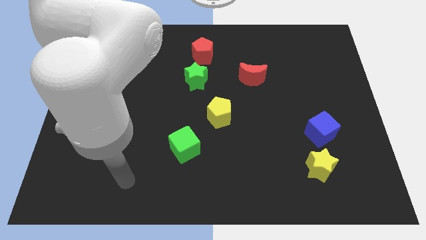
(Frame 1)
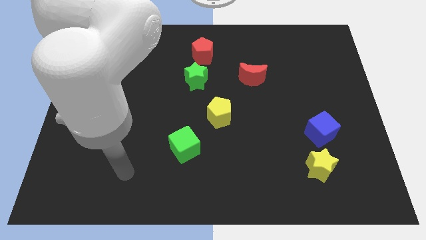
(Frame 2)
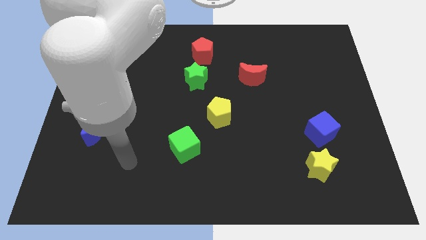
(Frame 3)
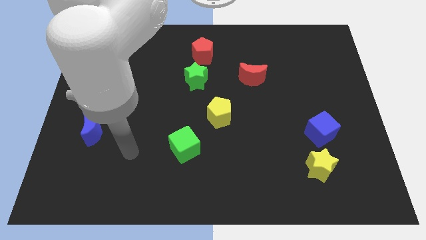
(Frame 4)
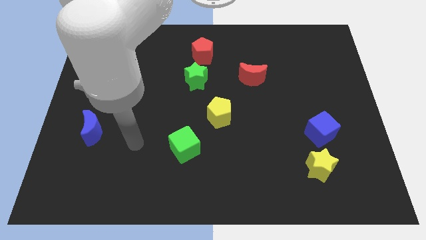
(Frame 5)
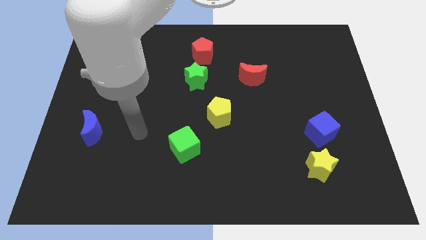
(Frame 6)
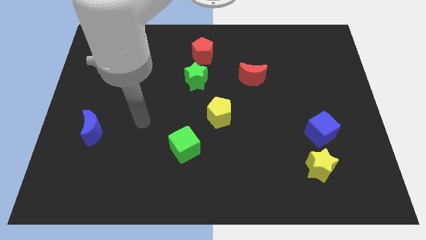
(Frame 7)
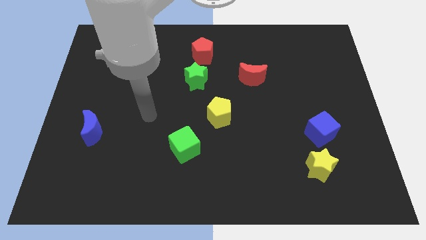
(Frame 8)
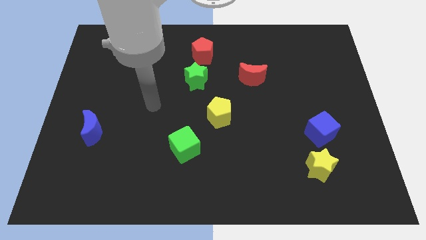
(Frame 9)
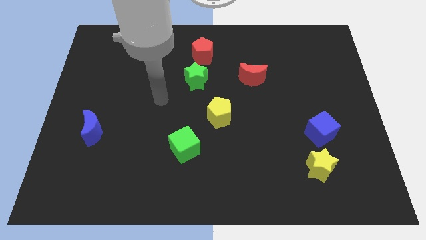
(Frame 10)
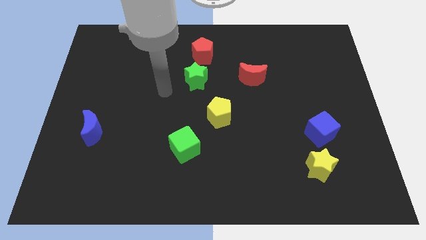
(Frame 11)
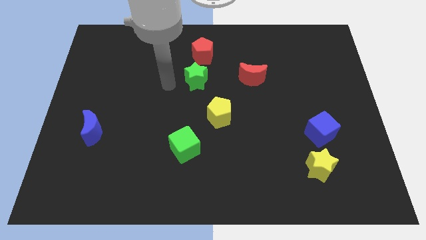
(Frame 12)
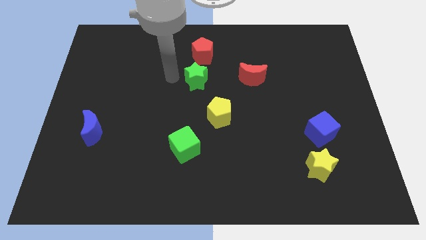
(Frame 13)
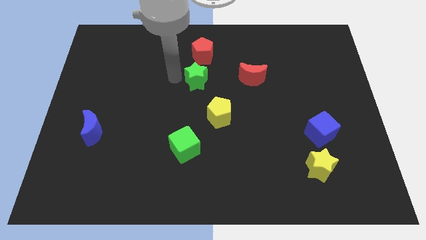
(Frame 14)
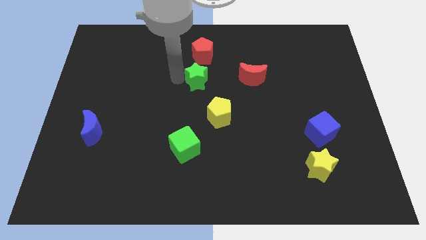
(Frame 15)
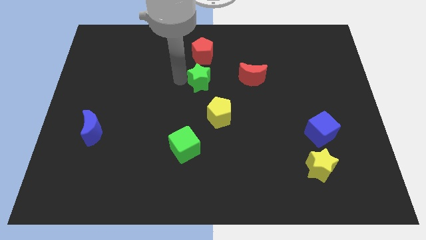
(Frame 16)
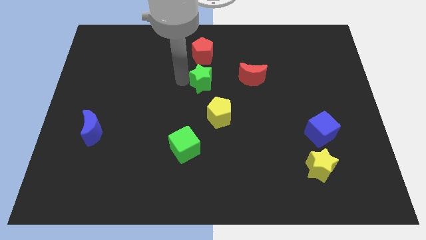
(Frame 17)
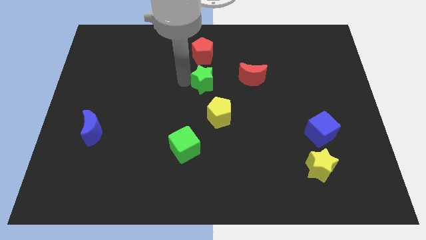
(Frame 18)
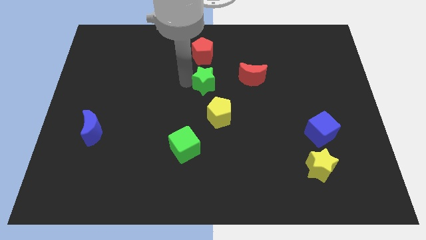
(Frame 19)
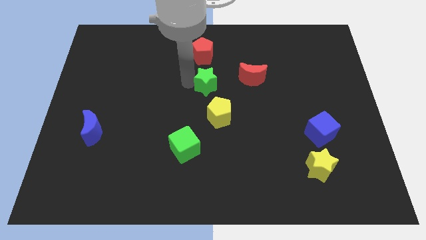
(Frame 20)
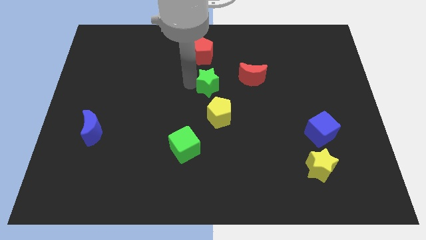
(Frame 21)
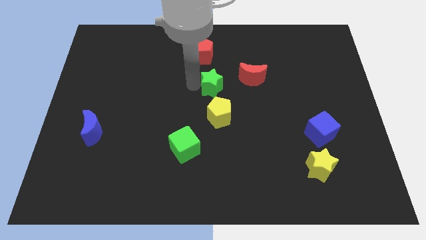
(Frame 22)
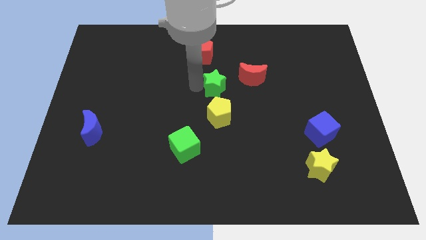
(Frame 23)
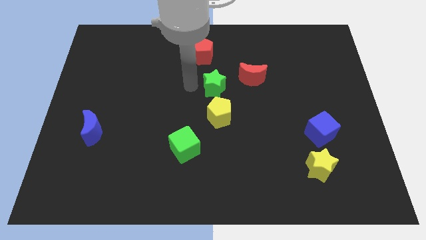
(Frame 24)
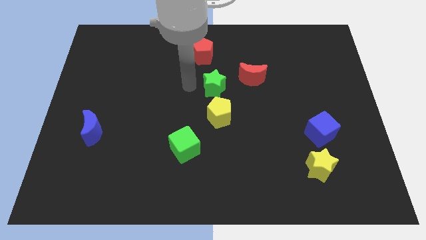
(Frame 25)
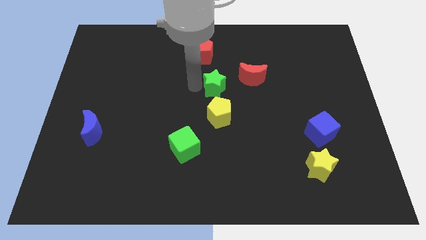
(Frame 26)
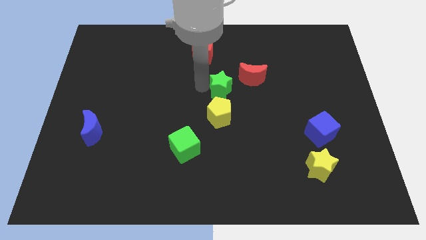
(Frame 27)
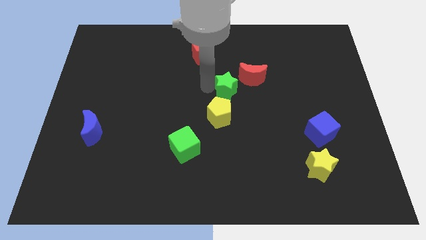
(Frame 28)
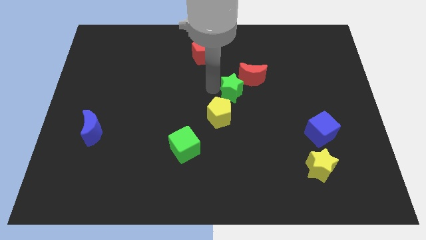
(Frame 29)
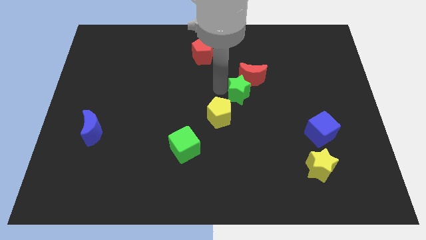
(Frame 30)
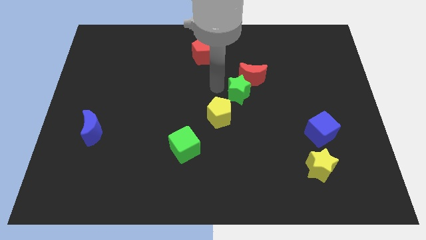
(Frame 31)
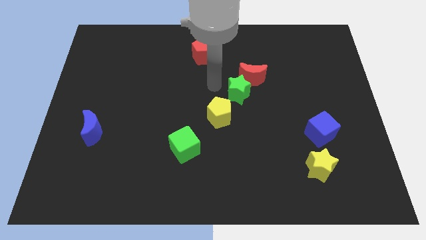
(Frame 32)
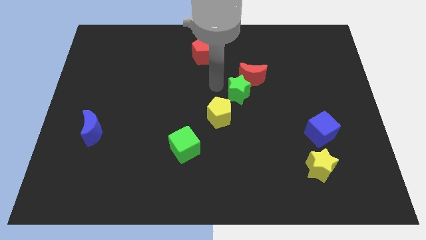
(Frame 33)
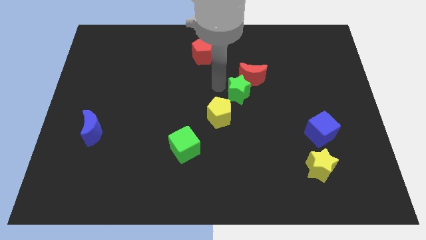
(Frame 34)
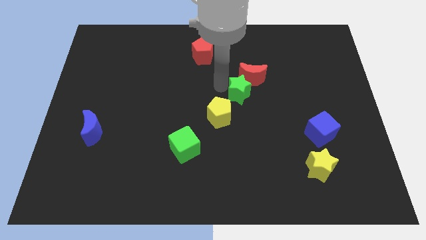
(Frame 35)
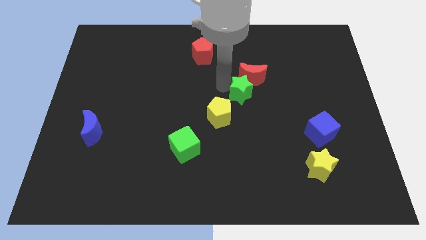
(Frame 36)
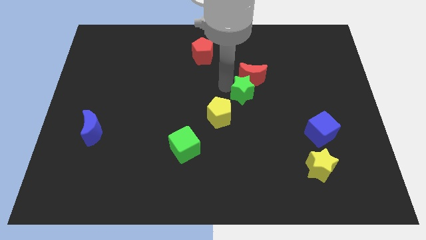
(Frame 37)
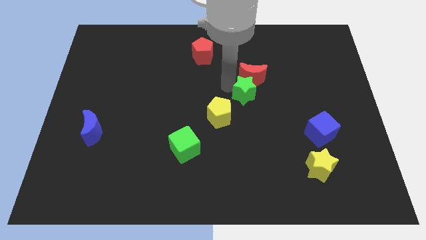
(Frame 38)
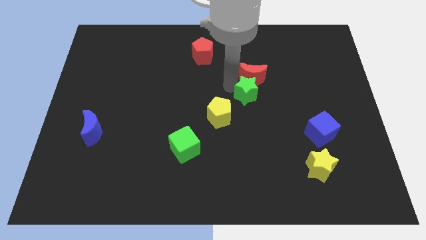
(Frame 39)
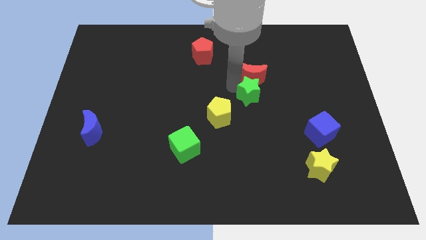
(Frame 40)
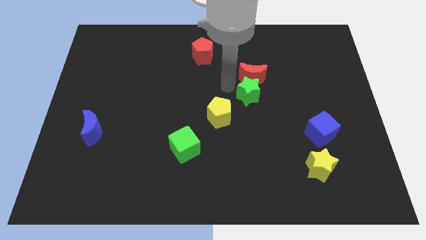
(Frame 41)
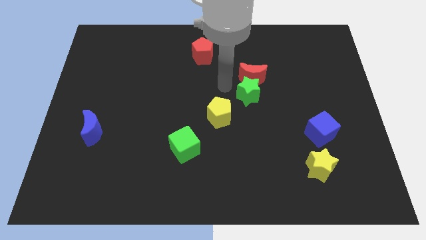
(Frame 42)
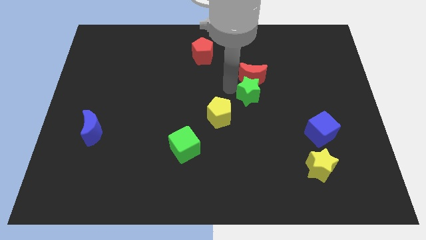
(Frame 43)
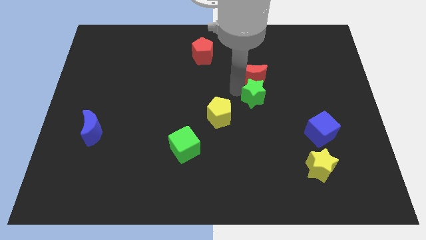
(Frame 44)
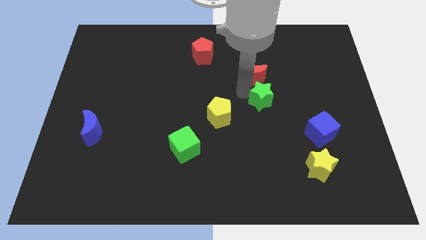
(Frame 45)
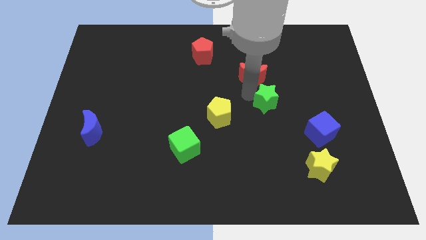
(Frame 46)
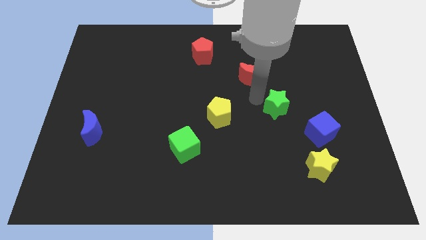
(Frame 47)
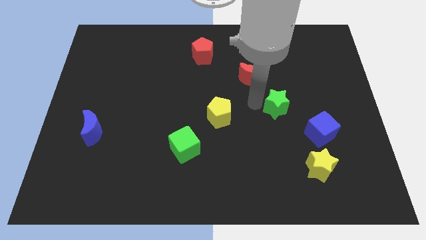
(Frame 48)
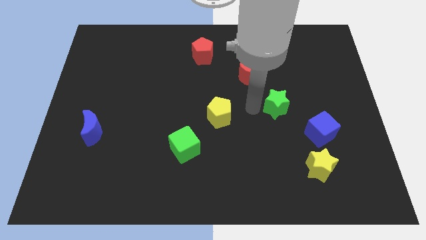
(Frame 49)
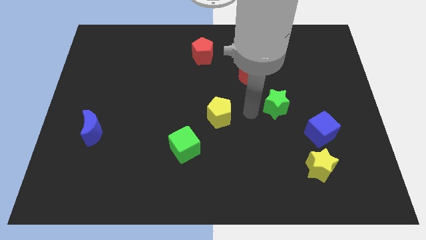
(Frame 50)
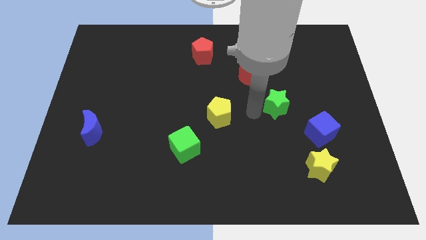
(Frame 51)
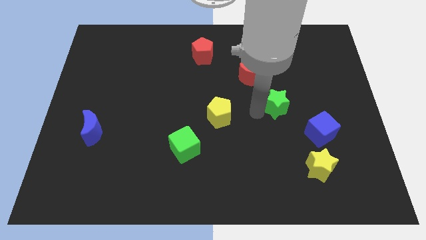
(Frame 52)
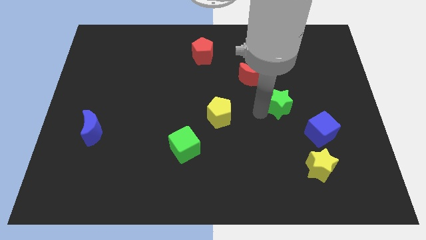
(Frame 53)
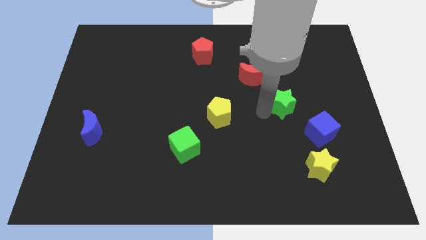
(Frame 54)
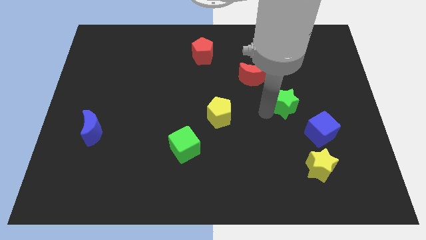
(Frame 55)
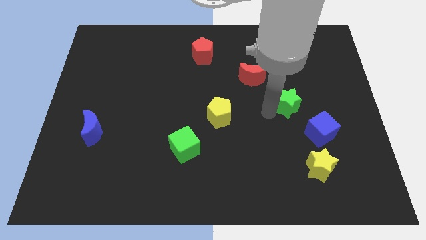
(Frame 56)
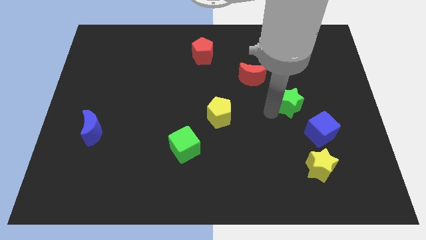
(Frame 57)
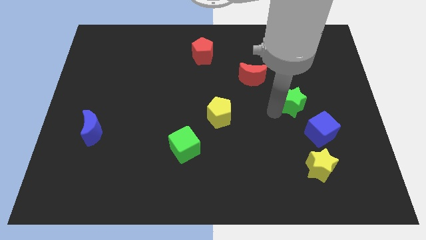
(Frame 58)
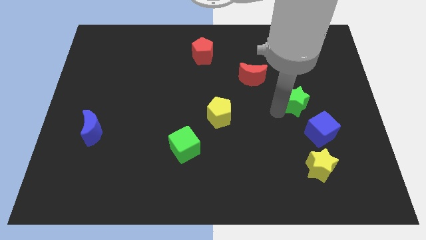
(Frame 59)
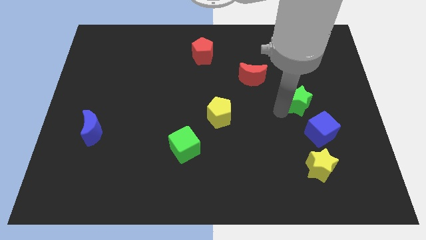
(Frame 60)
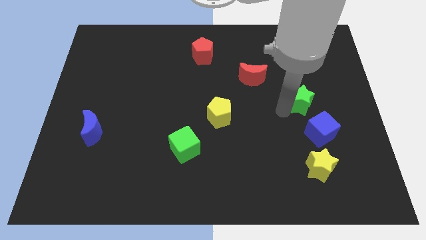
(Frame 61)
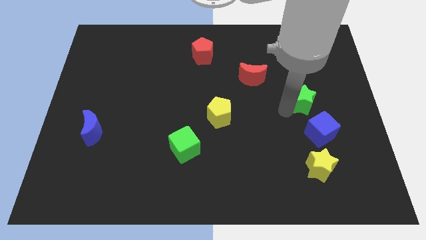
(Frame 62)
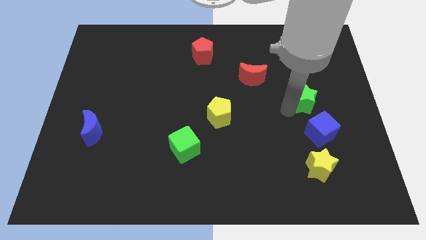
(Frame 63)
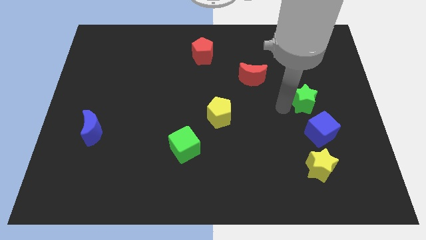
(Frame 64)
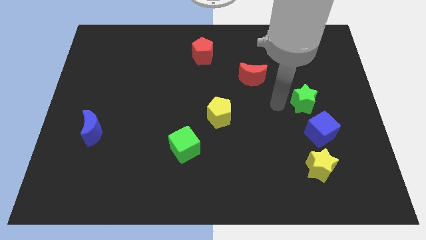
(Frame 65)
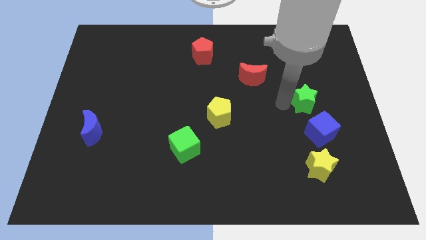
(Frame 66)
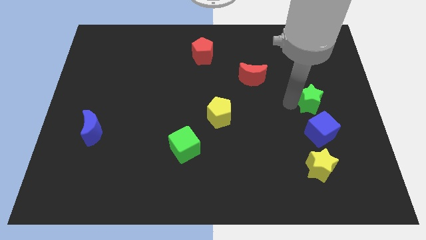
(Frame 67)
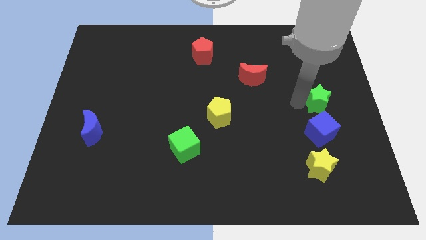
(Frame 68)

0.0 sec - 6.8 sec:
put the green star to the right side

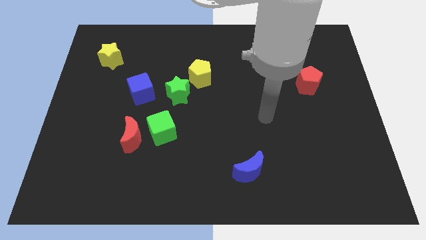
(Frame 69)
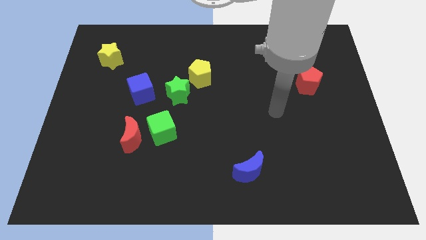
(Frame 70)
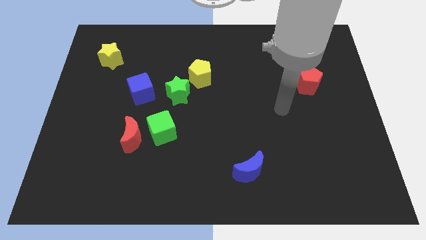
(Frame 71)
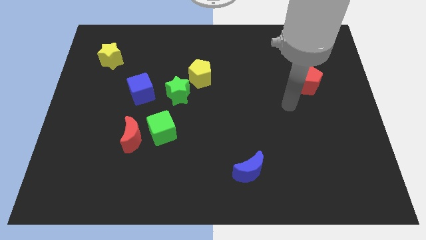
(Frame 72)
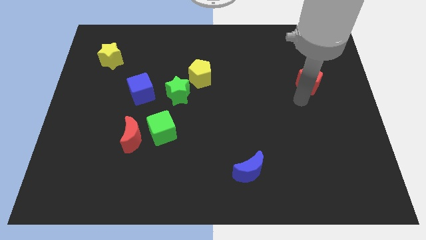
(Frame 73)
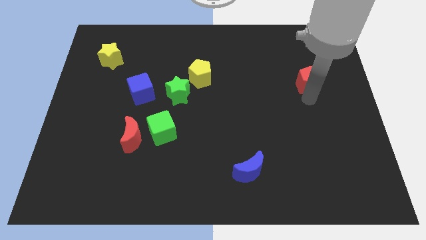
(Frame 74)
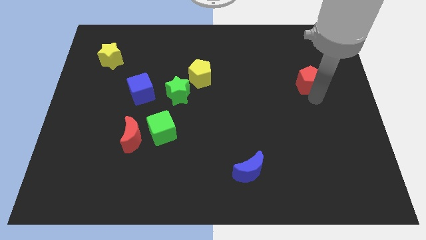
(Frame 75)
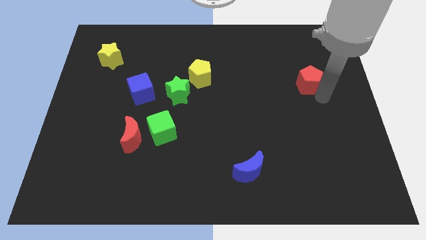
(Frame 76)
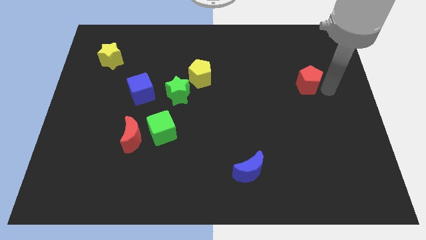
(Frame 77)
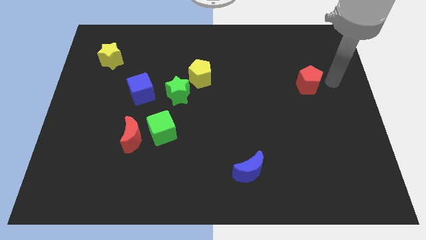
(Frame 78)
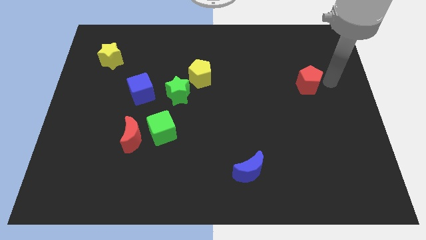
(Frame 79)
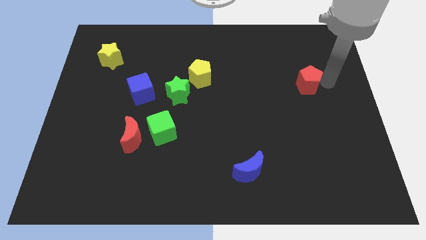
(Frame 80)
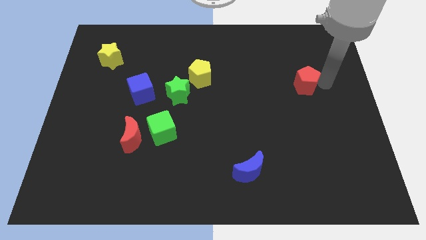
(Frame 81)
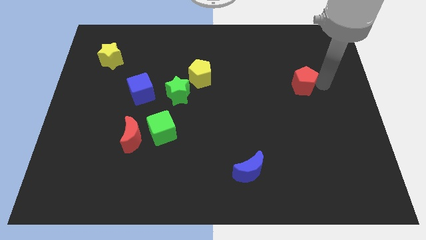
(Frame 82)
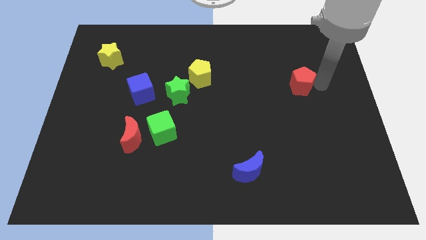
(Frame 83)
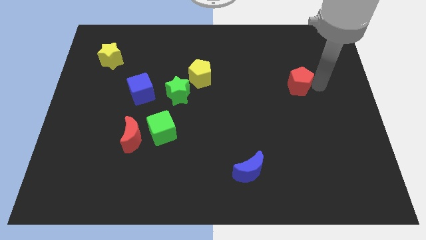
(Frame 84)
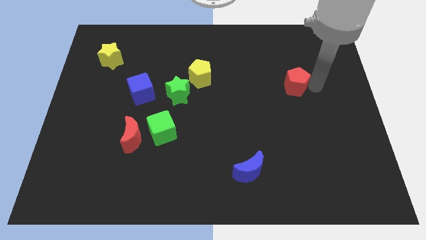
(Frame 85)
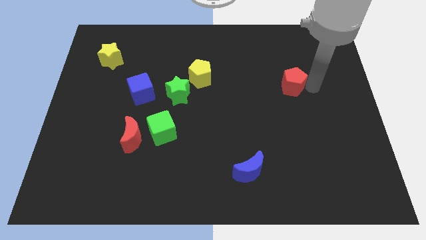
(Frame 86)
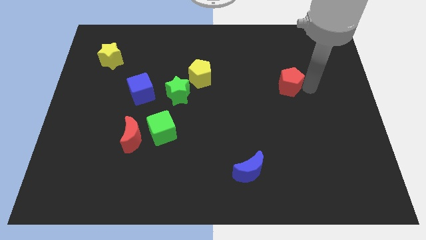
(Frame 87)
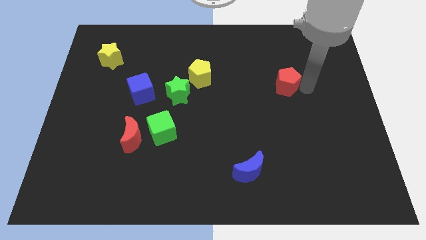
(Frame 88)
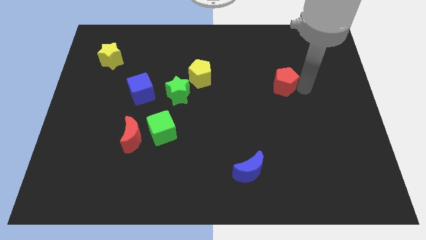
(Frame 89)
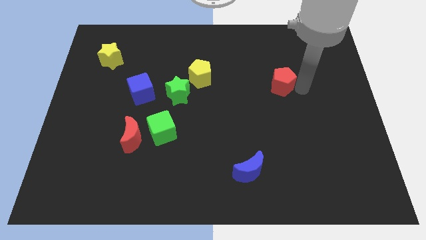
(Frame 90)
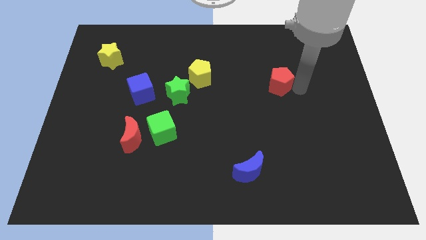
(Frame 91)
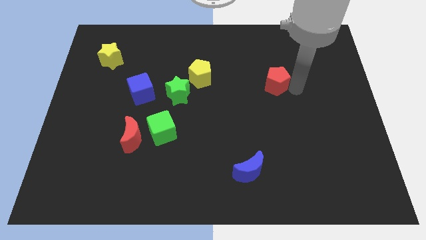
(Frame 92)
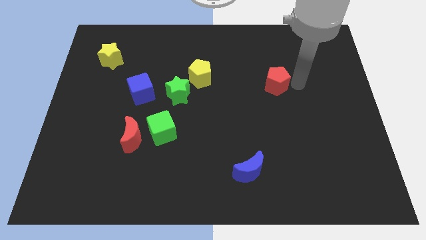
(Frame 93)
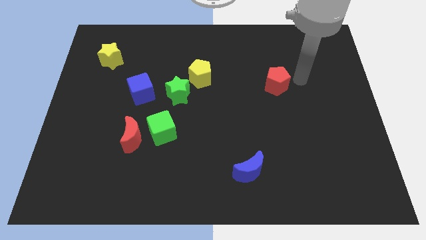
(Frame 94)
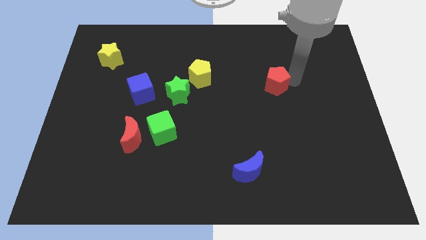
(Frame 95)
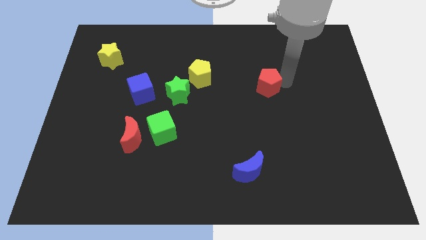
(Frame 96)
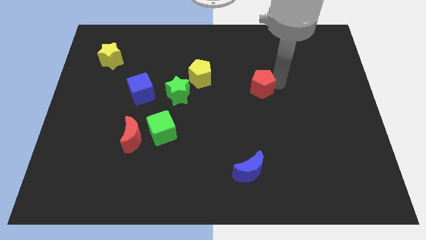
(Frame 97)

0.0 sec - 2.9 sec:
move the red pentagon to the middle
